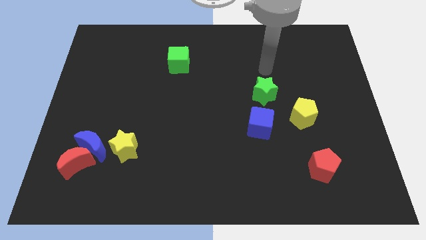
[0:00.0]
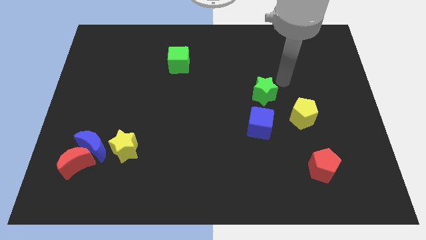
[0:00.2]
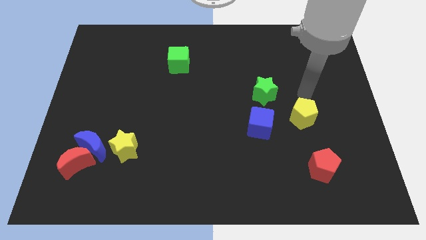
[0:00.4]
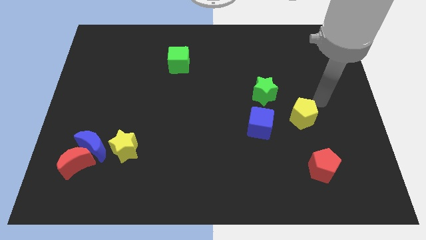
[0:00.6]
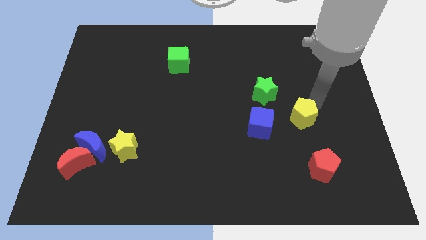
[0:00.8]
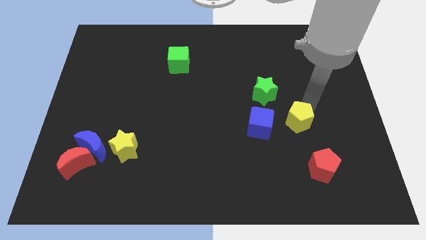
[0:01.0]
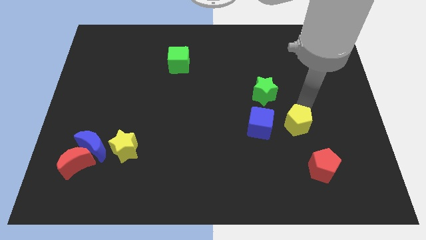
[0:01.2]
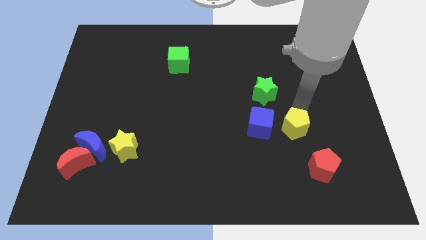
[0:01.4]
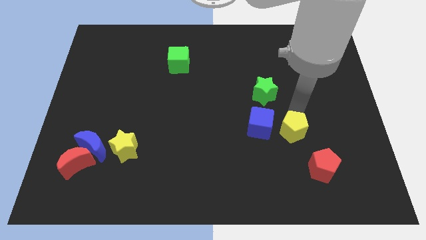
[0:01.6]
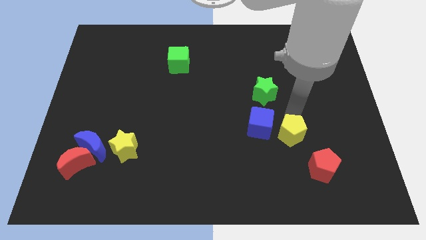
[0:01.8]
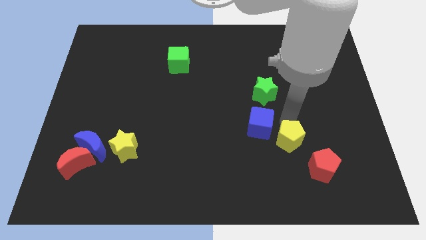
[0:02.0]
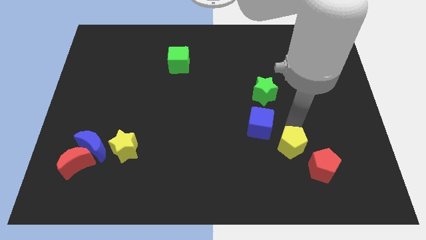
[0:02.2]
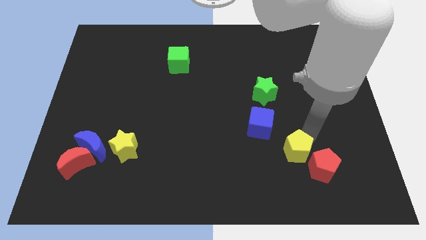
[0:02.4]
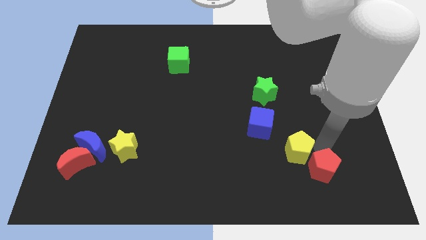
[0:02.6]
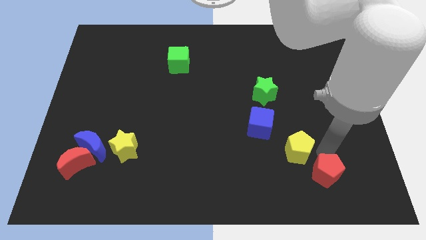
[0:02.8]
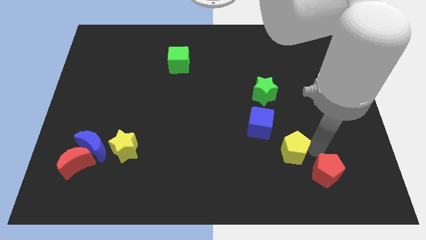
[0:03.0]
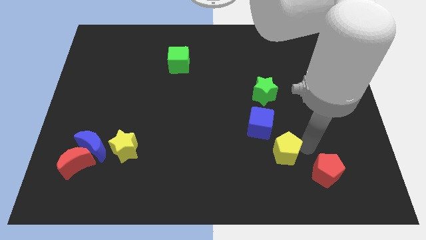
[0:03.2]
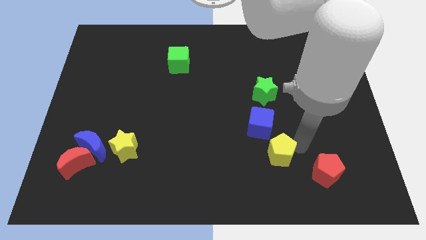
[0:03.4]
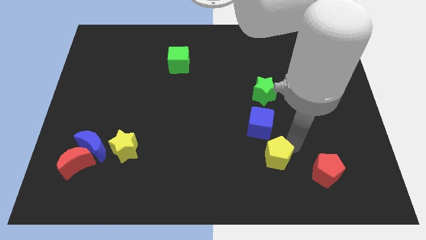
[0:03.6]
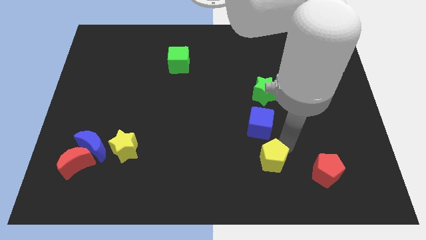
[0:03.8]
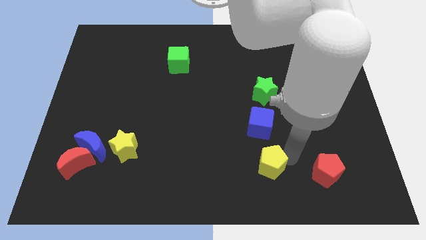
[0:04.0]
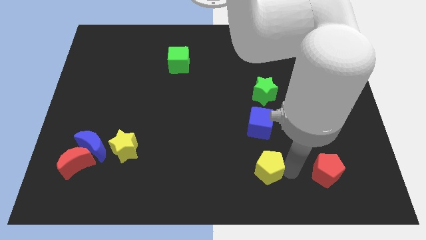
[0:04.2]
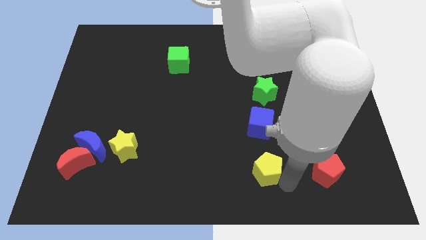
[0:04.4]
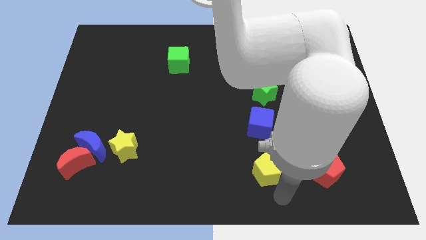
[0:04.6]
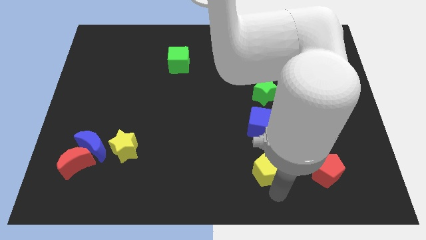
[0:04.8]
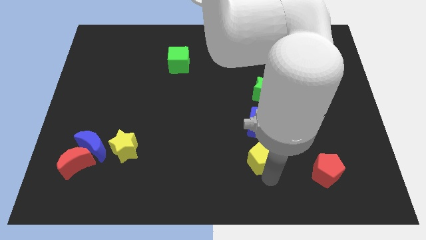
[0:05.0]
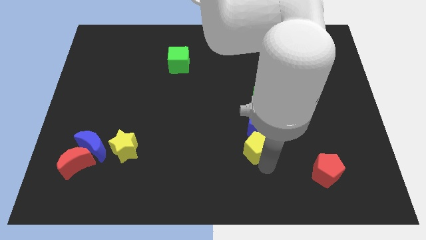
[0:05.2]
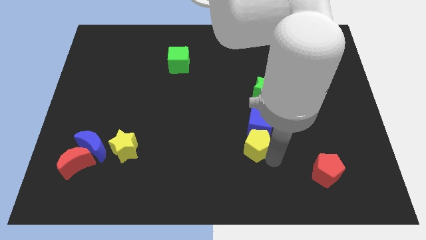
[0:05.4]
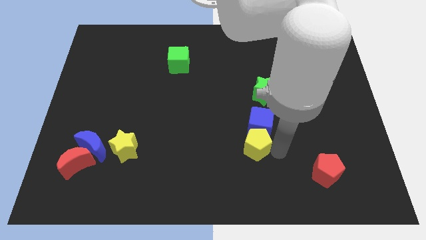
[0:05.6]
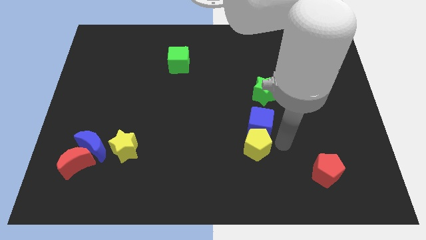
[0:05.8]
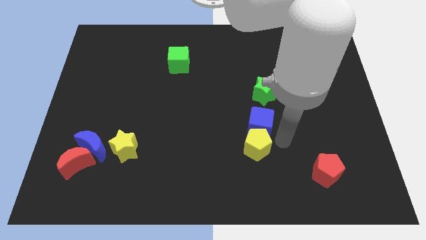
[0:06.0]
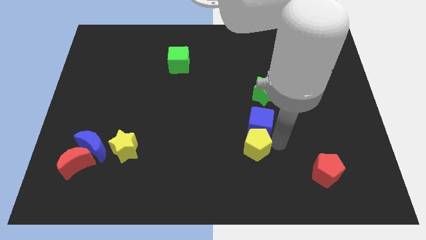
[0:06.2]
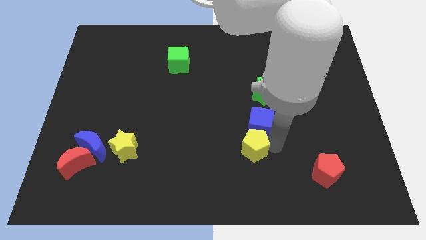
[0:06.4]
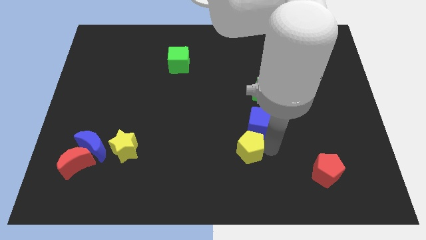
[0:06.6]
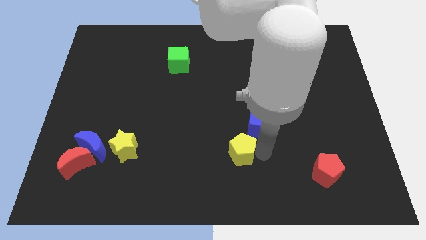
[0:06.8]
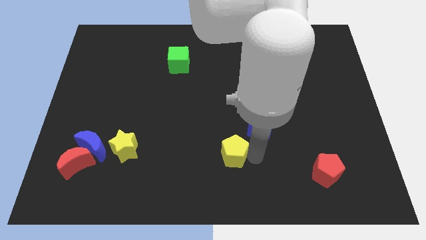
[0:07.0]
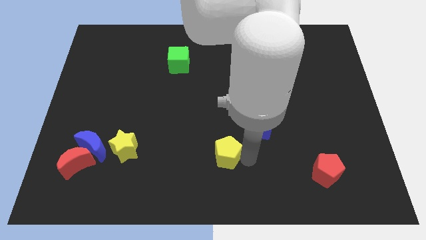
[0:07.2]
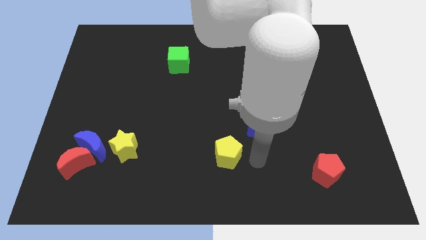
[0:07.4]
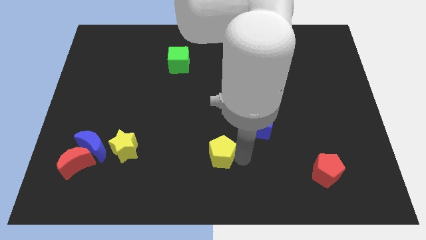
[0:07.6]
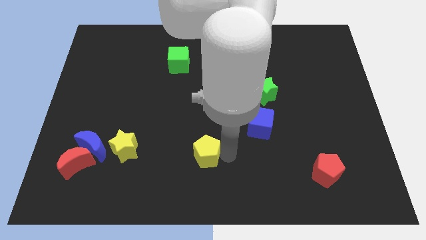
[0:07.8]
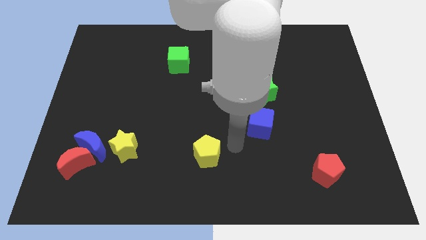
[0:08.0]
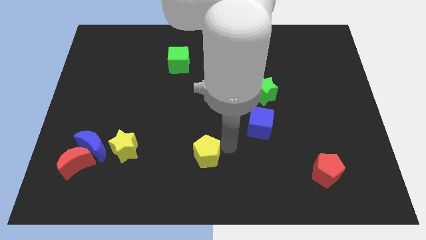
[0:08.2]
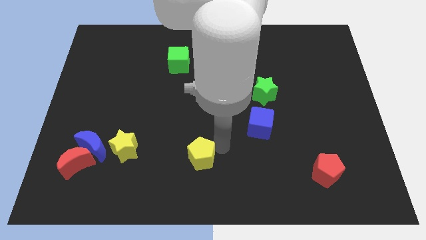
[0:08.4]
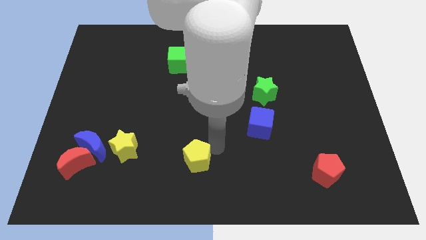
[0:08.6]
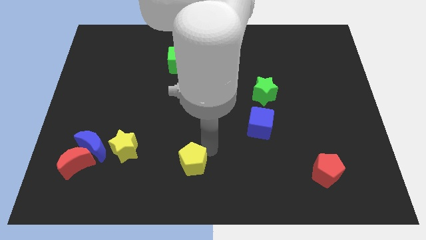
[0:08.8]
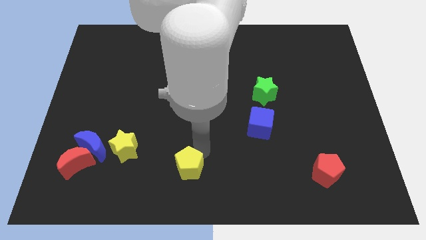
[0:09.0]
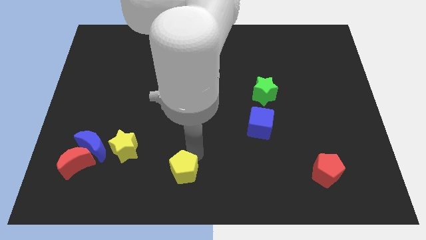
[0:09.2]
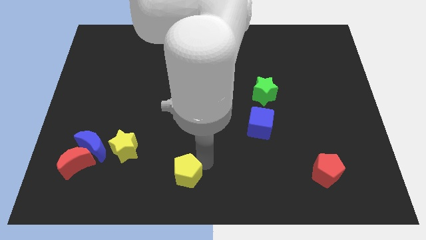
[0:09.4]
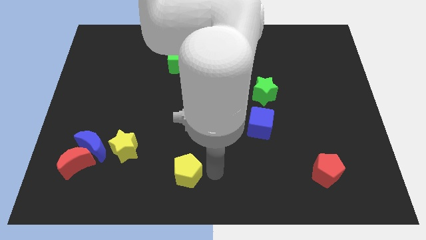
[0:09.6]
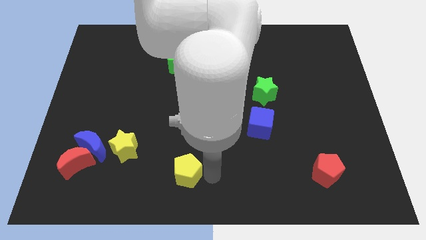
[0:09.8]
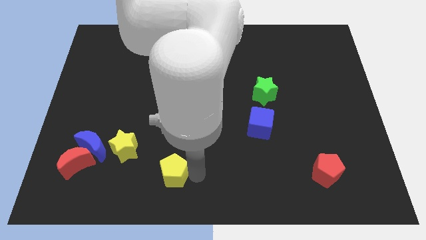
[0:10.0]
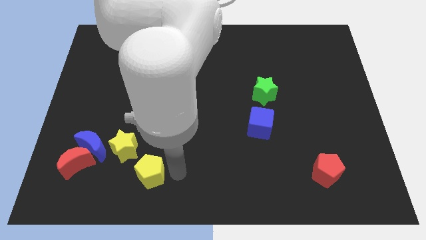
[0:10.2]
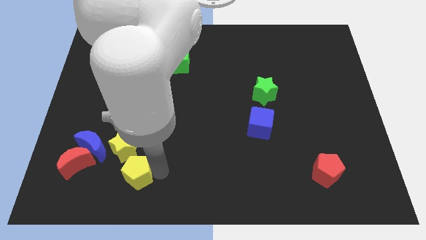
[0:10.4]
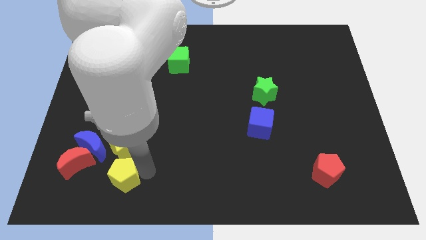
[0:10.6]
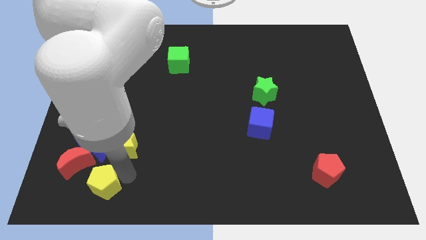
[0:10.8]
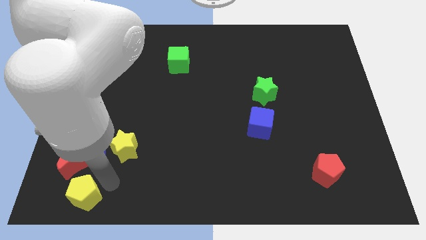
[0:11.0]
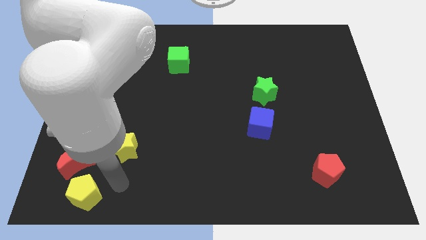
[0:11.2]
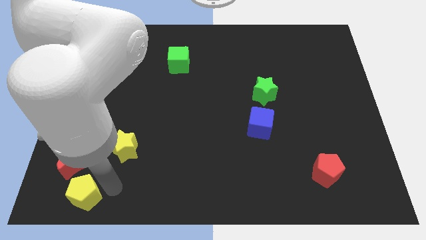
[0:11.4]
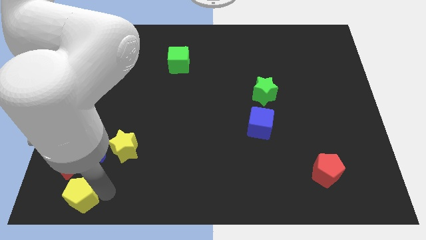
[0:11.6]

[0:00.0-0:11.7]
put the yellow pentagon to the bottom left corner

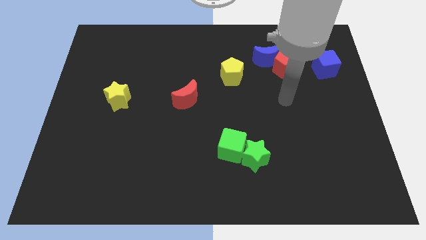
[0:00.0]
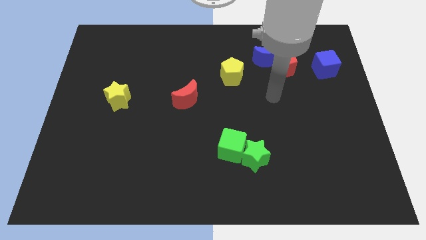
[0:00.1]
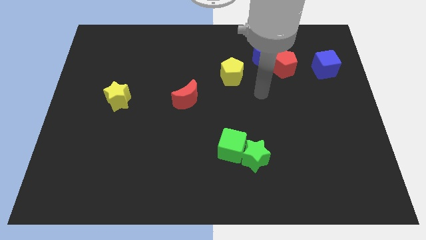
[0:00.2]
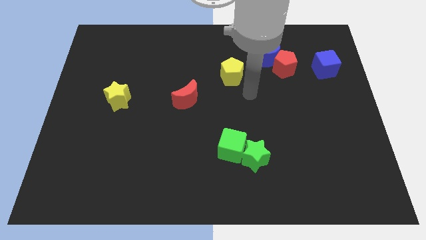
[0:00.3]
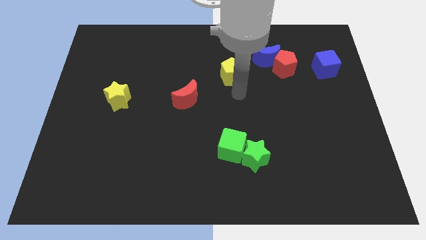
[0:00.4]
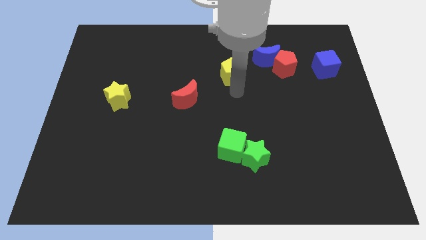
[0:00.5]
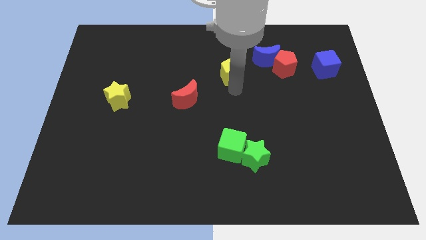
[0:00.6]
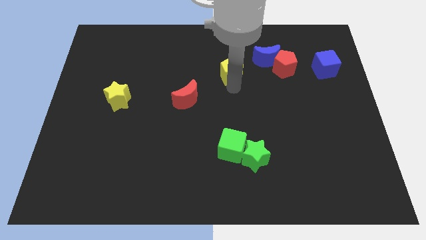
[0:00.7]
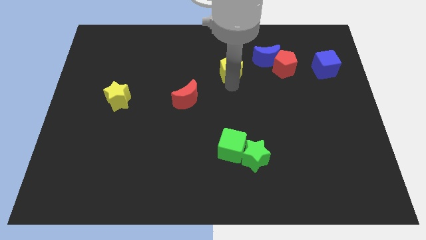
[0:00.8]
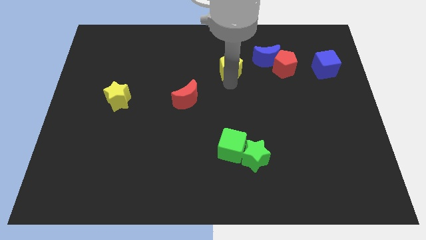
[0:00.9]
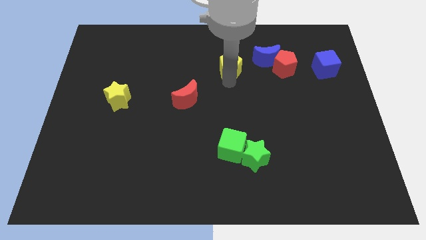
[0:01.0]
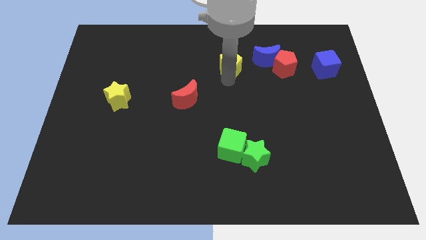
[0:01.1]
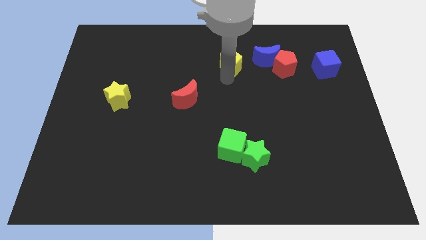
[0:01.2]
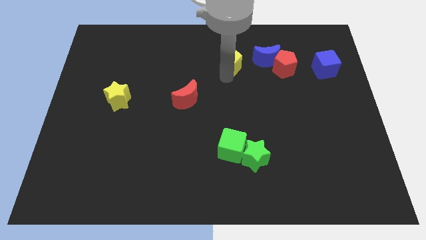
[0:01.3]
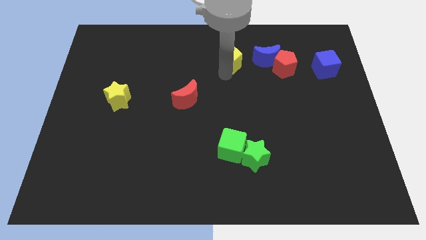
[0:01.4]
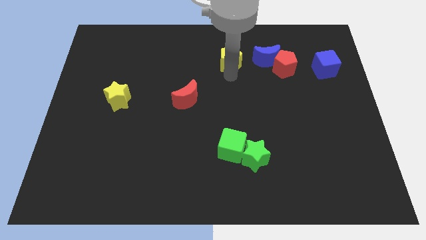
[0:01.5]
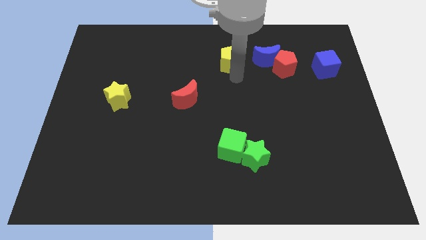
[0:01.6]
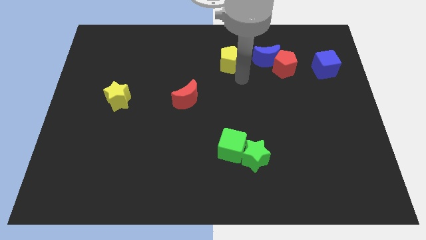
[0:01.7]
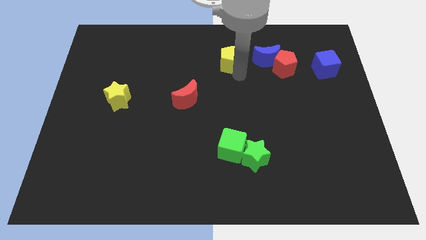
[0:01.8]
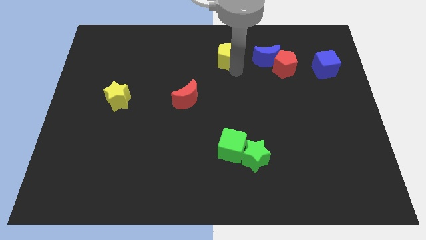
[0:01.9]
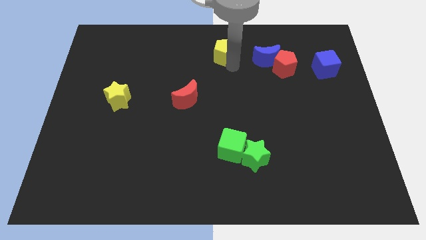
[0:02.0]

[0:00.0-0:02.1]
put the yellow pentagon to the top side
